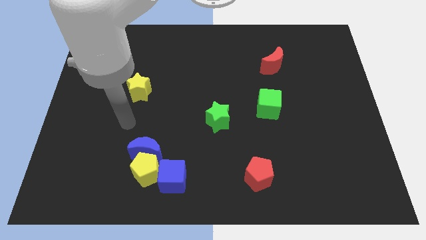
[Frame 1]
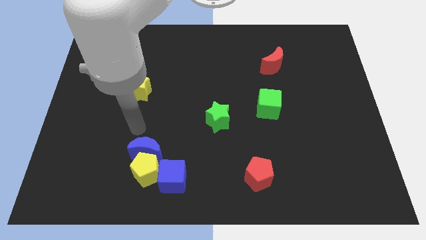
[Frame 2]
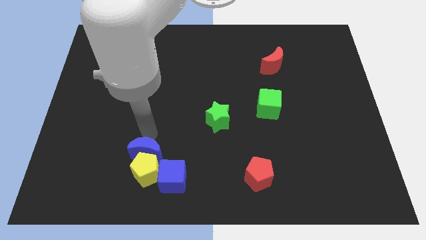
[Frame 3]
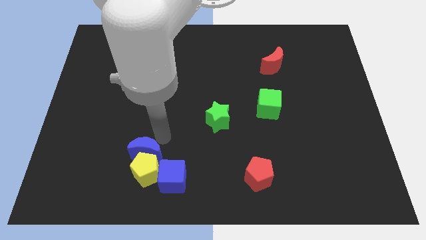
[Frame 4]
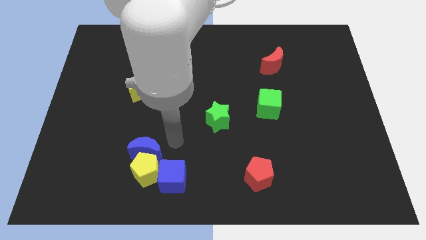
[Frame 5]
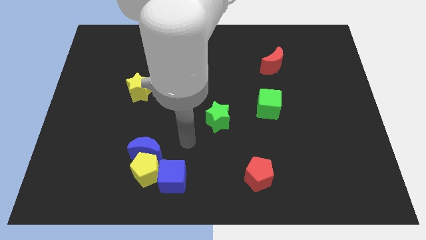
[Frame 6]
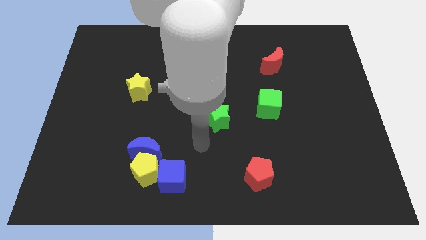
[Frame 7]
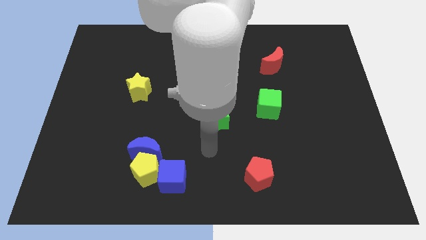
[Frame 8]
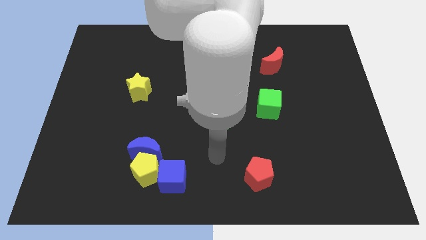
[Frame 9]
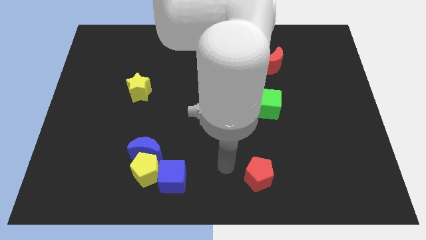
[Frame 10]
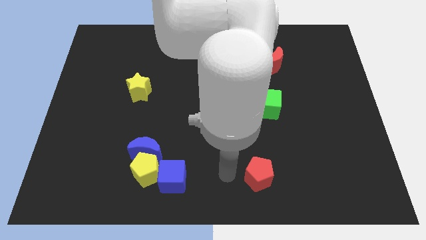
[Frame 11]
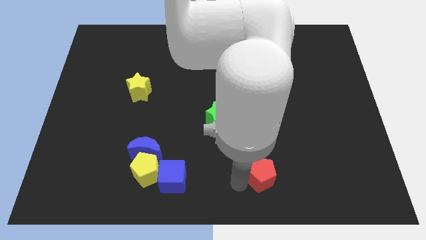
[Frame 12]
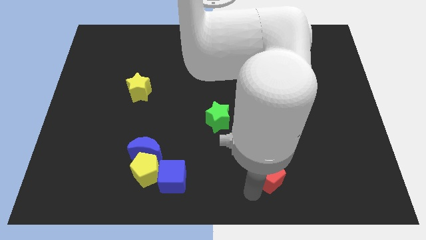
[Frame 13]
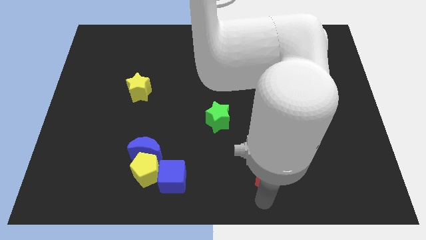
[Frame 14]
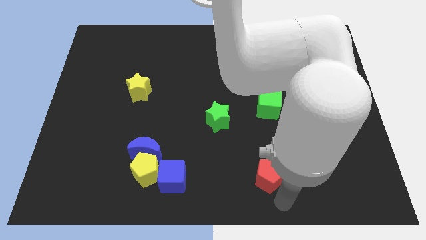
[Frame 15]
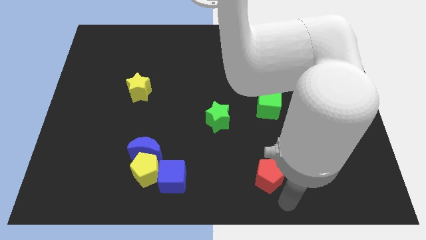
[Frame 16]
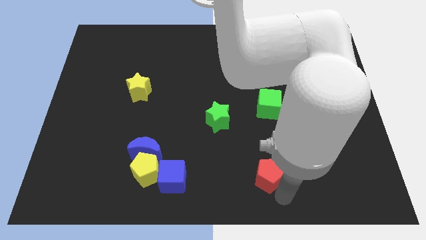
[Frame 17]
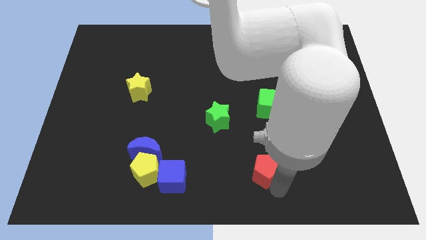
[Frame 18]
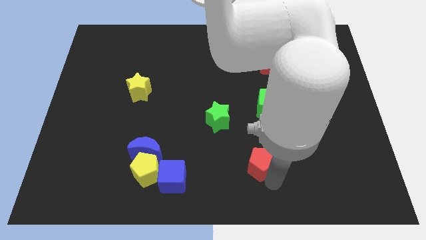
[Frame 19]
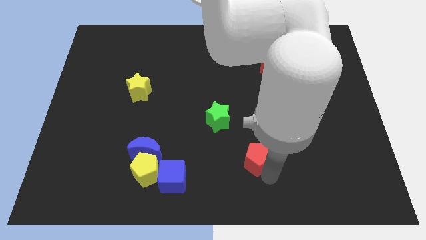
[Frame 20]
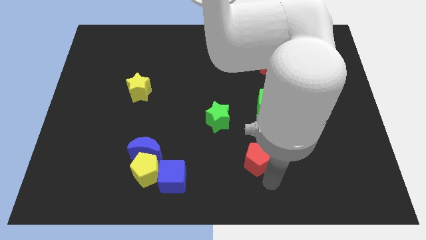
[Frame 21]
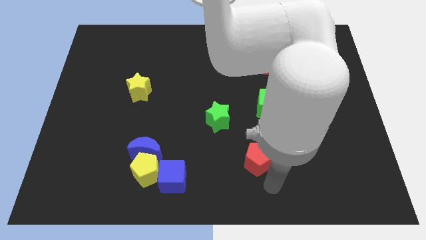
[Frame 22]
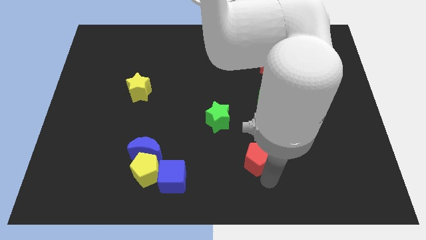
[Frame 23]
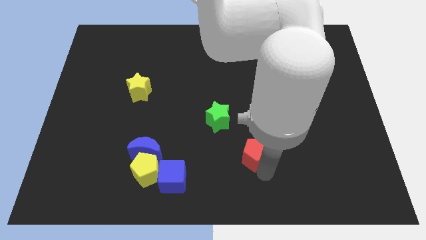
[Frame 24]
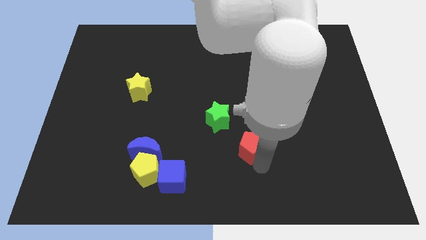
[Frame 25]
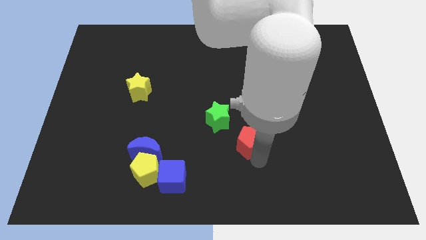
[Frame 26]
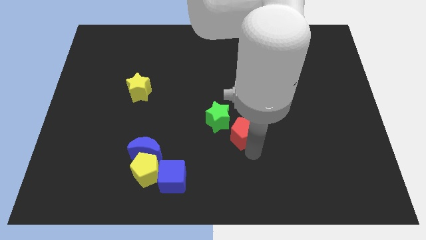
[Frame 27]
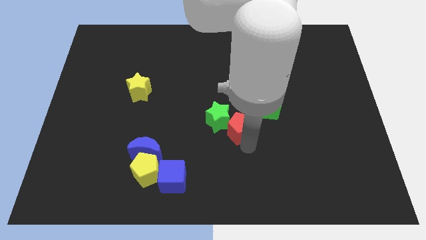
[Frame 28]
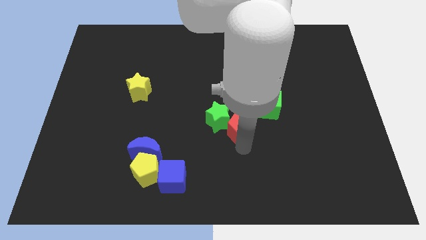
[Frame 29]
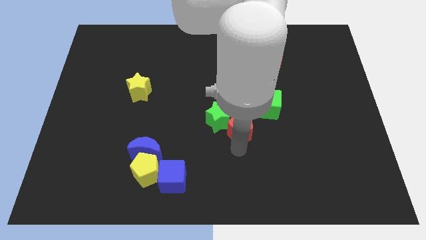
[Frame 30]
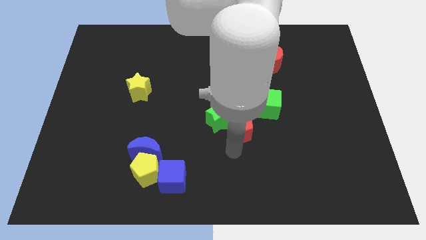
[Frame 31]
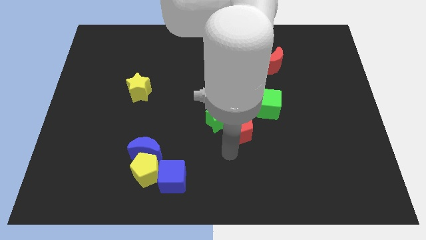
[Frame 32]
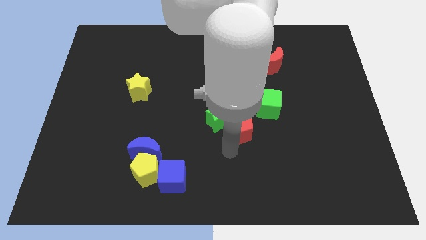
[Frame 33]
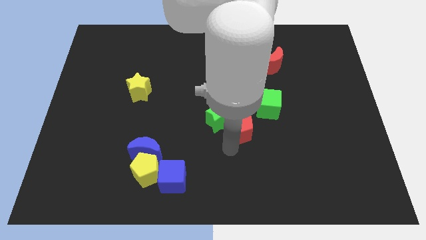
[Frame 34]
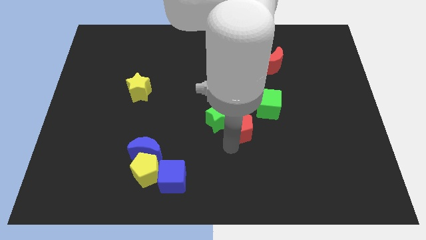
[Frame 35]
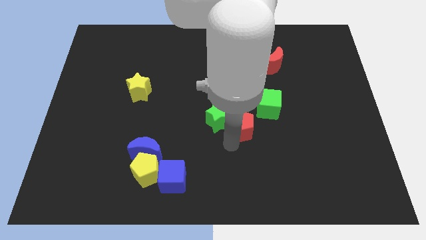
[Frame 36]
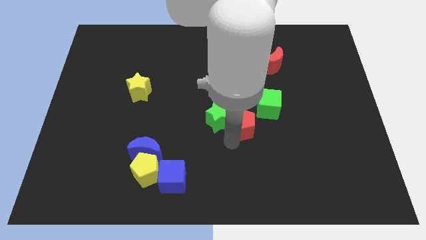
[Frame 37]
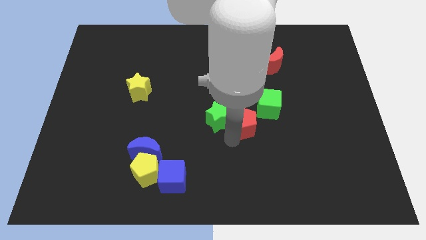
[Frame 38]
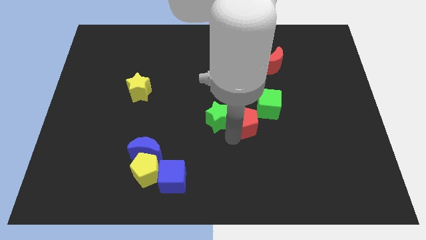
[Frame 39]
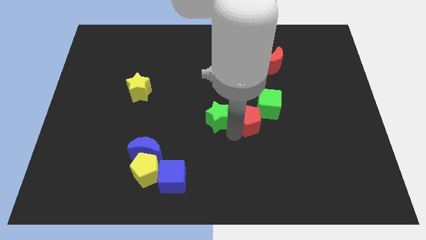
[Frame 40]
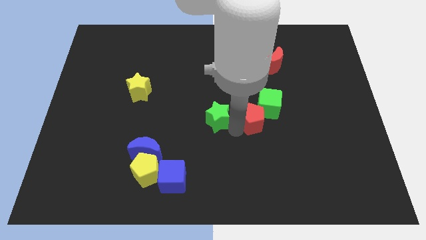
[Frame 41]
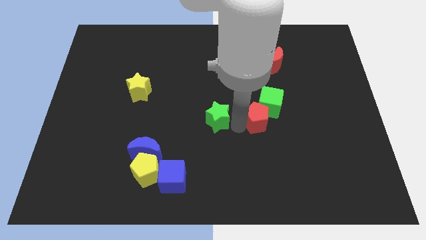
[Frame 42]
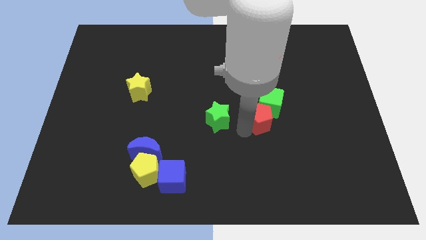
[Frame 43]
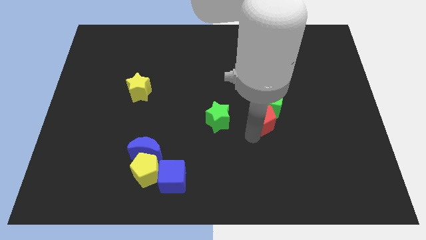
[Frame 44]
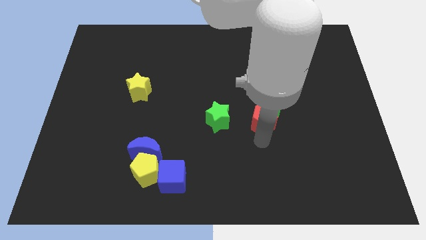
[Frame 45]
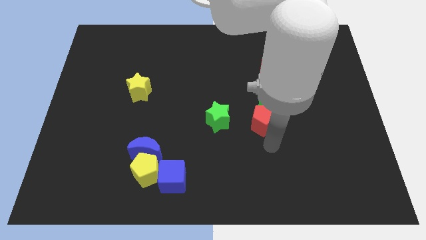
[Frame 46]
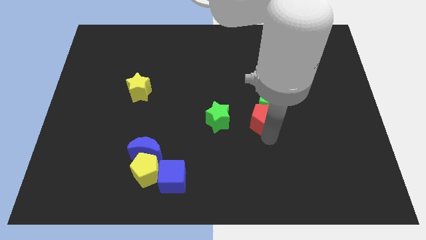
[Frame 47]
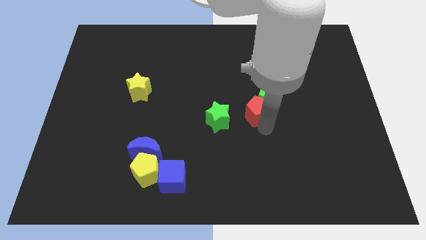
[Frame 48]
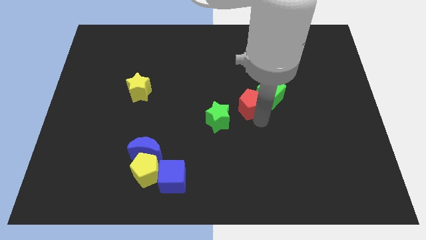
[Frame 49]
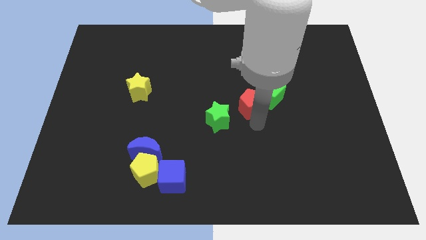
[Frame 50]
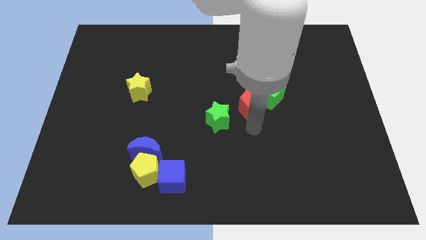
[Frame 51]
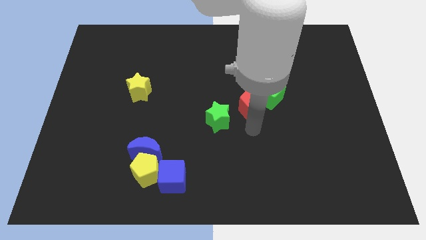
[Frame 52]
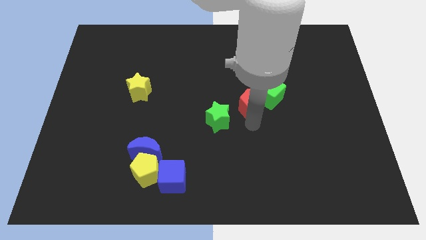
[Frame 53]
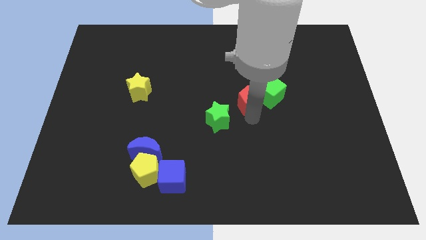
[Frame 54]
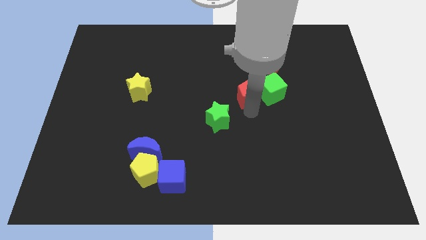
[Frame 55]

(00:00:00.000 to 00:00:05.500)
slide the red pentagon up

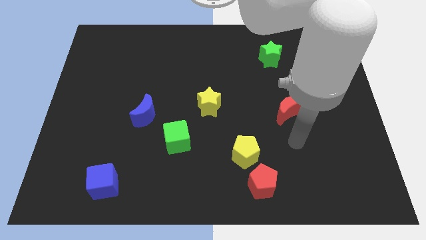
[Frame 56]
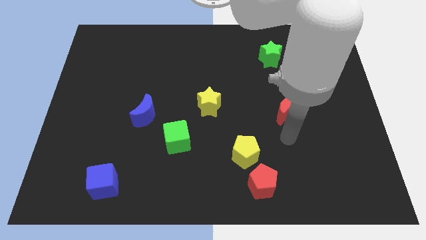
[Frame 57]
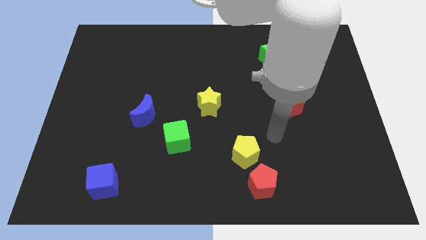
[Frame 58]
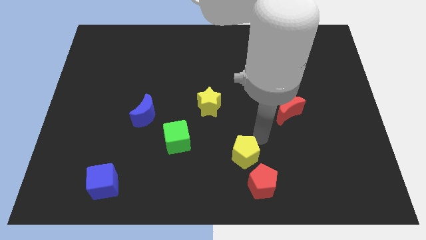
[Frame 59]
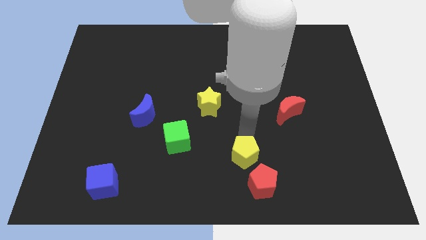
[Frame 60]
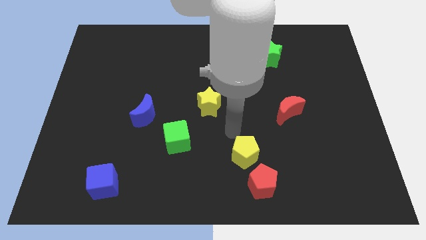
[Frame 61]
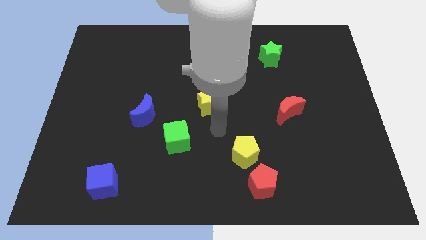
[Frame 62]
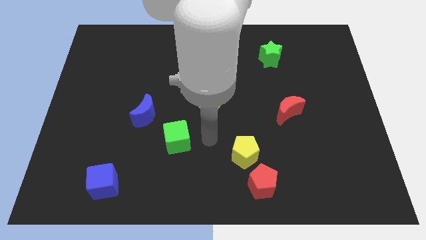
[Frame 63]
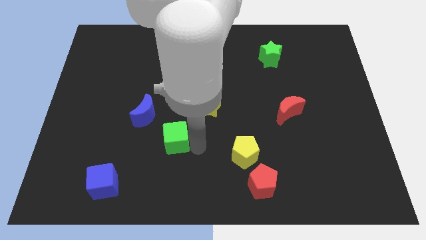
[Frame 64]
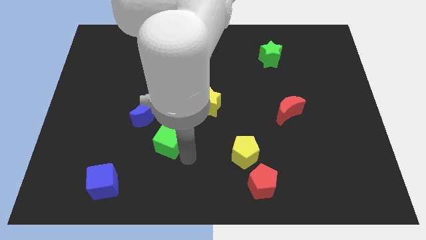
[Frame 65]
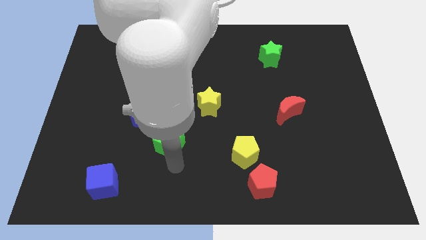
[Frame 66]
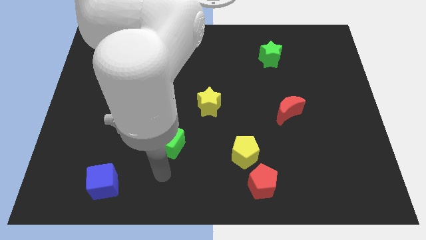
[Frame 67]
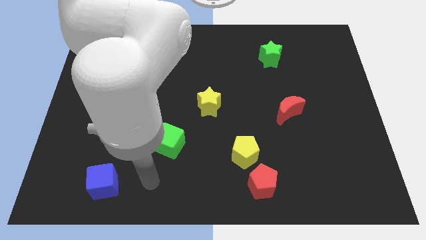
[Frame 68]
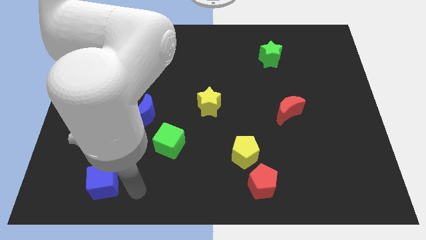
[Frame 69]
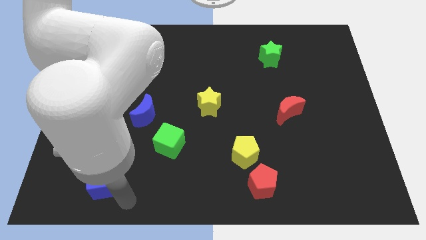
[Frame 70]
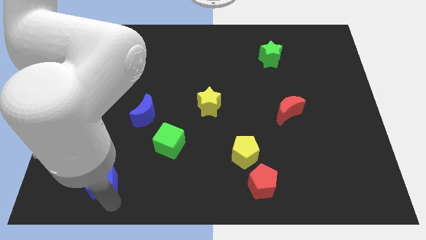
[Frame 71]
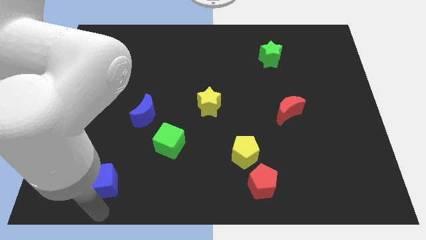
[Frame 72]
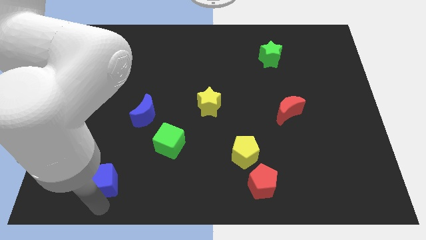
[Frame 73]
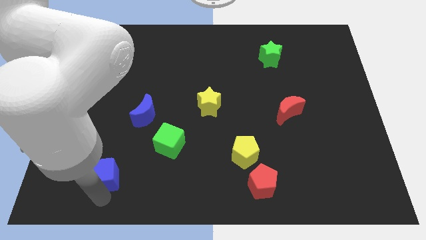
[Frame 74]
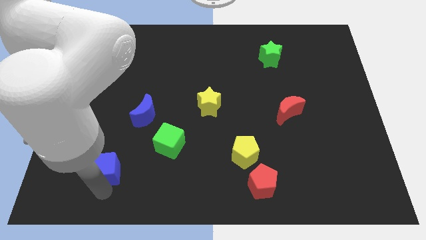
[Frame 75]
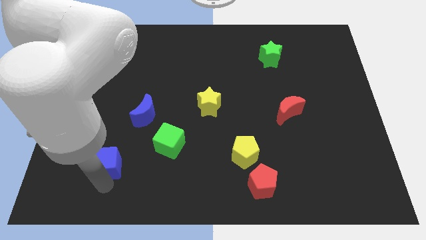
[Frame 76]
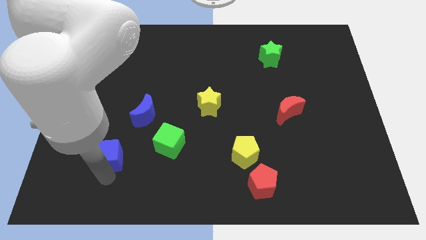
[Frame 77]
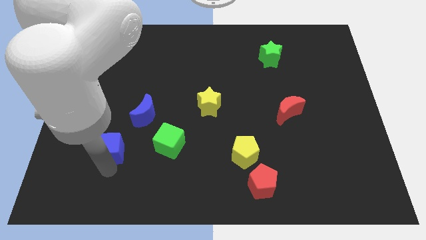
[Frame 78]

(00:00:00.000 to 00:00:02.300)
push the blue cube slightly up

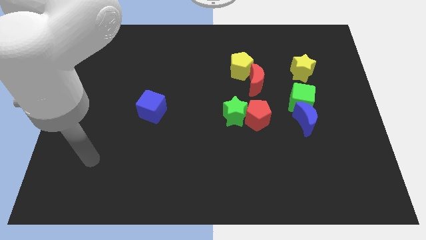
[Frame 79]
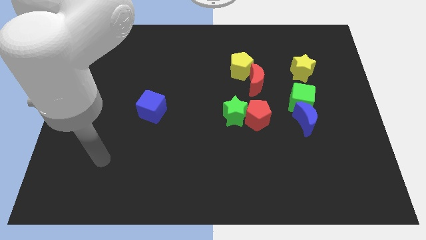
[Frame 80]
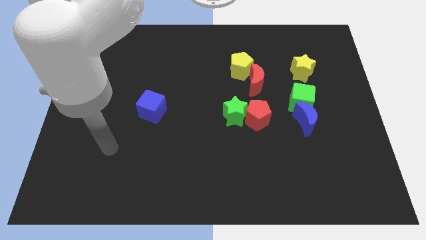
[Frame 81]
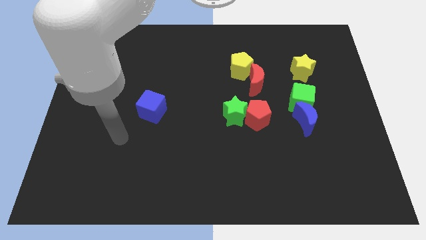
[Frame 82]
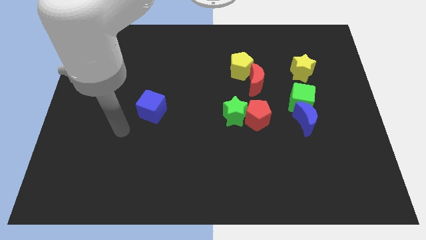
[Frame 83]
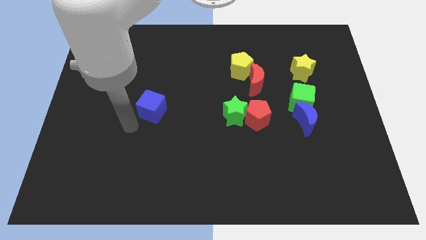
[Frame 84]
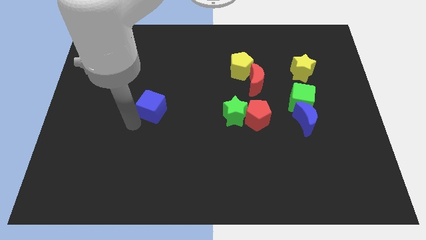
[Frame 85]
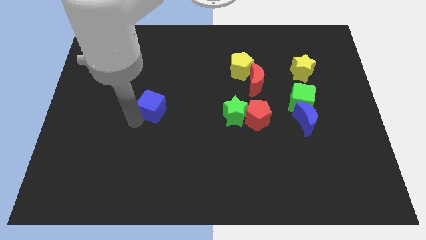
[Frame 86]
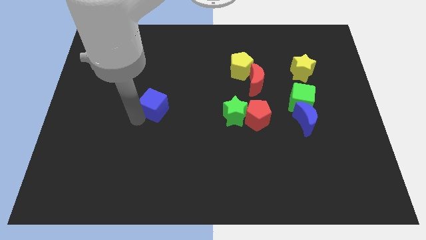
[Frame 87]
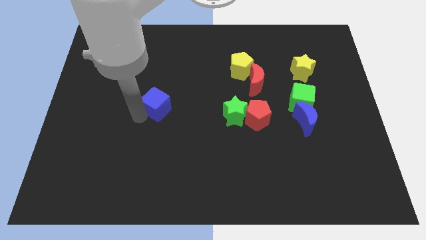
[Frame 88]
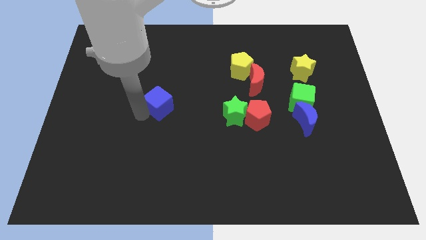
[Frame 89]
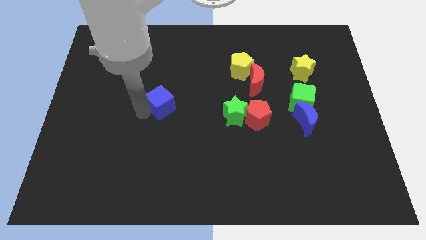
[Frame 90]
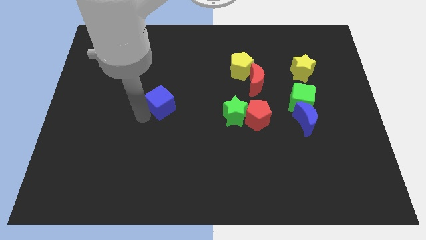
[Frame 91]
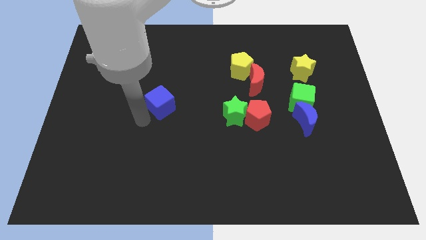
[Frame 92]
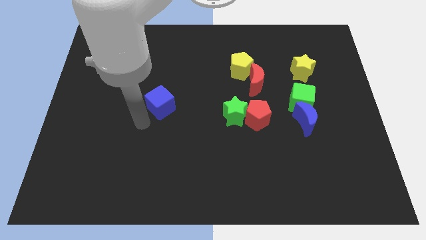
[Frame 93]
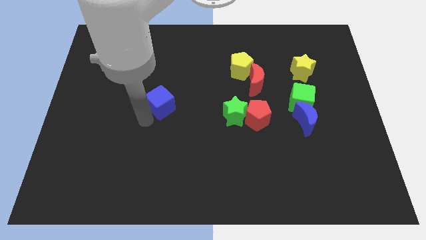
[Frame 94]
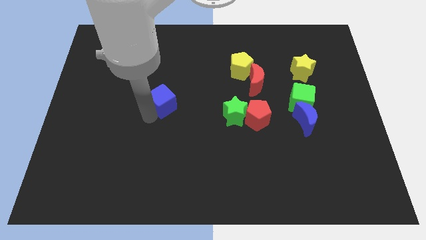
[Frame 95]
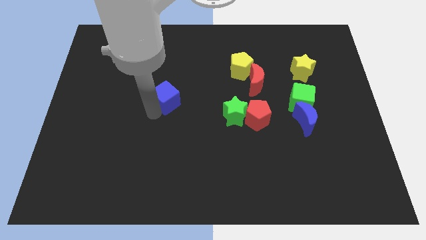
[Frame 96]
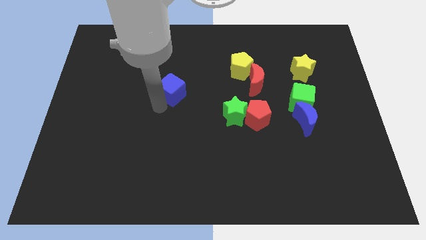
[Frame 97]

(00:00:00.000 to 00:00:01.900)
push the blue cube diagonally up and to the right slightly
